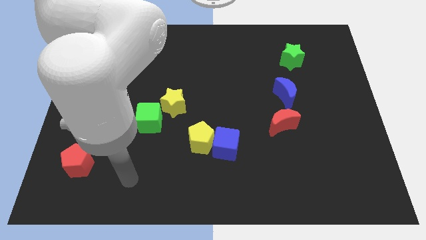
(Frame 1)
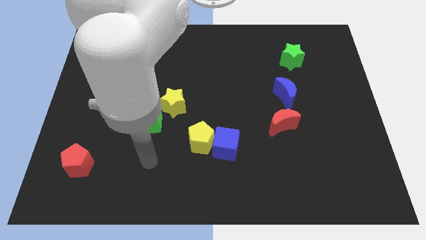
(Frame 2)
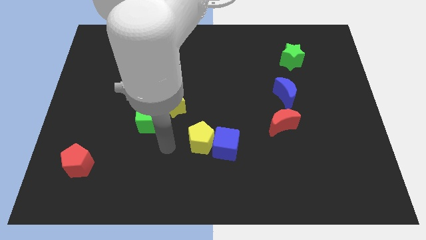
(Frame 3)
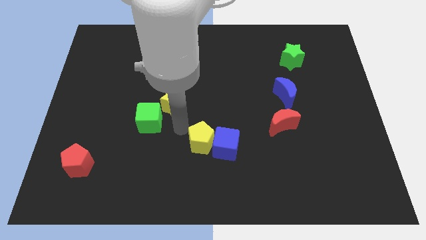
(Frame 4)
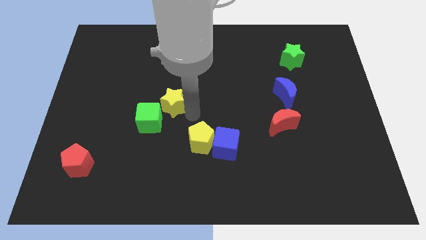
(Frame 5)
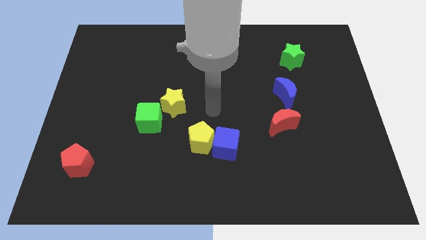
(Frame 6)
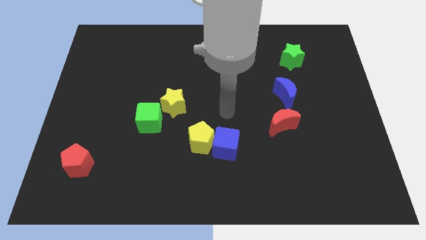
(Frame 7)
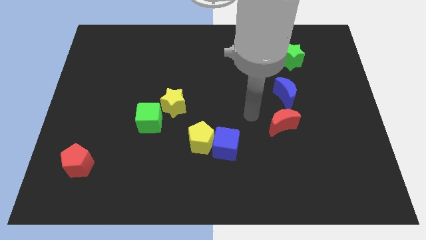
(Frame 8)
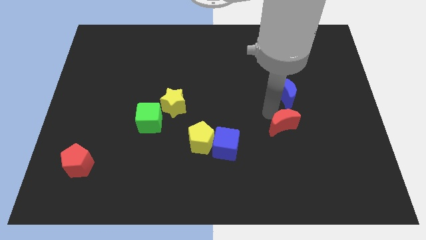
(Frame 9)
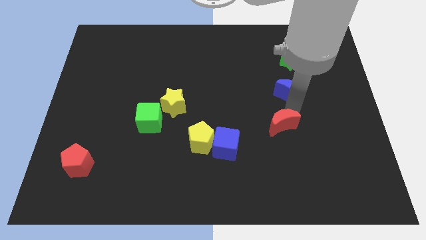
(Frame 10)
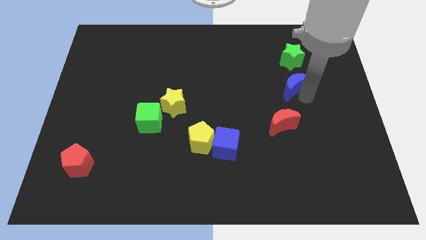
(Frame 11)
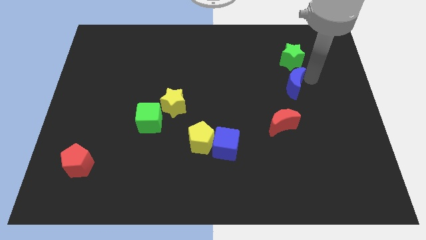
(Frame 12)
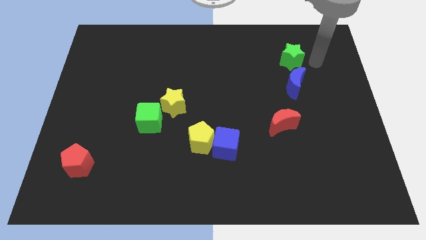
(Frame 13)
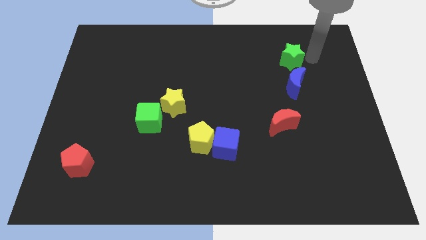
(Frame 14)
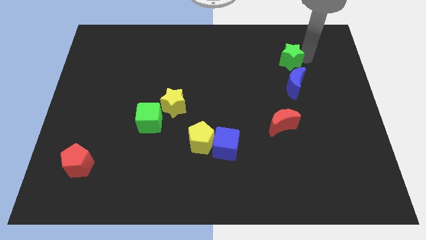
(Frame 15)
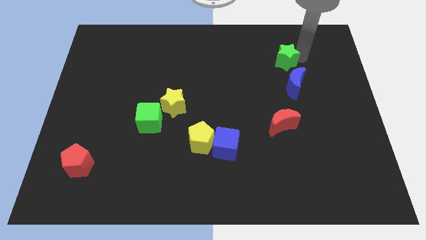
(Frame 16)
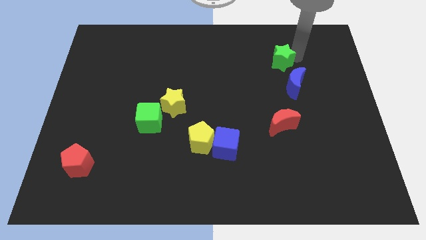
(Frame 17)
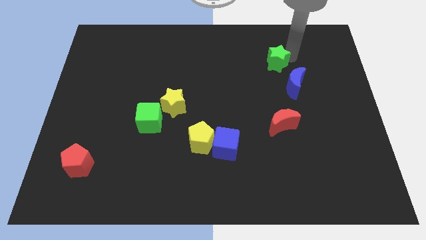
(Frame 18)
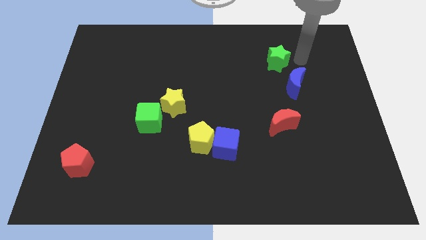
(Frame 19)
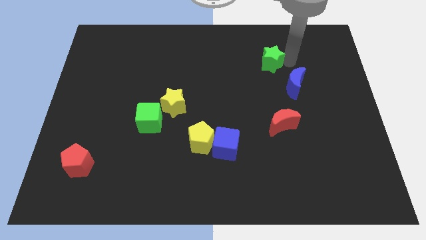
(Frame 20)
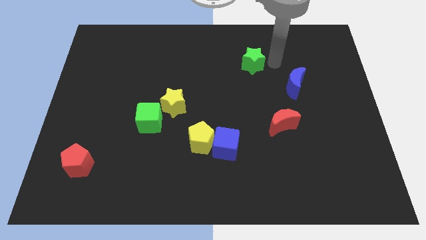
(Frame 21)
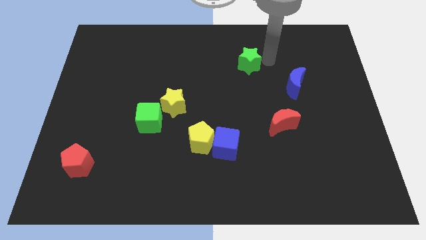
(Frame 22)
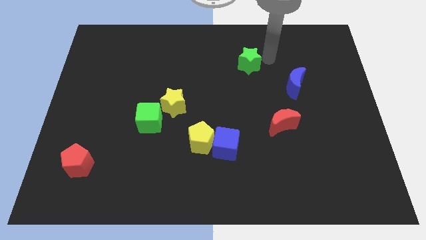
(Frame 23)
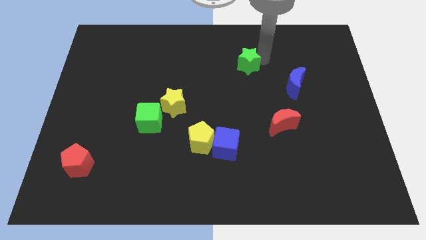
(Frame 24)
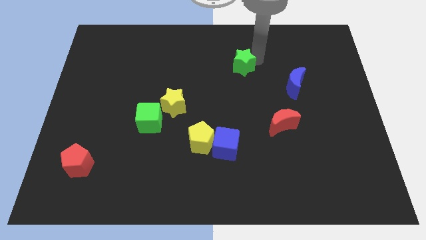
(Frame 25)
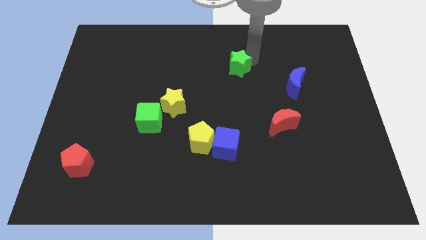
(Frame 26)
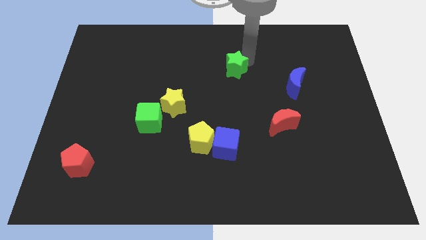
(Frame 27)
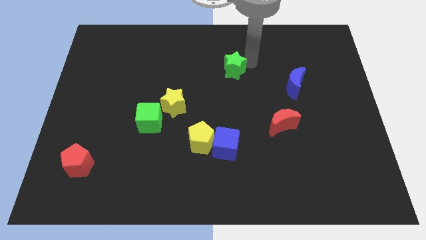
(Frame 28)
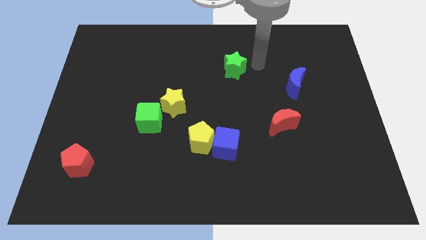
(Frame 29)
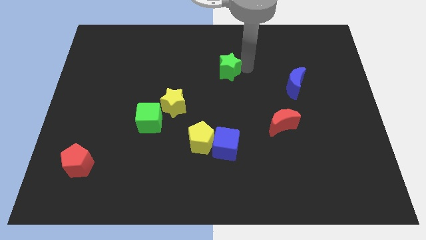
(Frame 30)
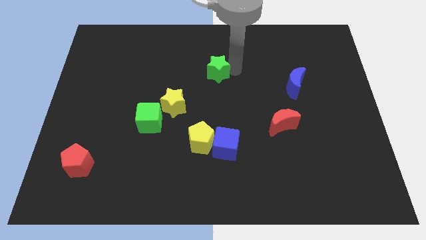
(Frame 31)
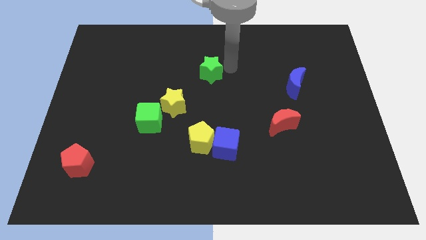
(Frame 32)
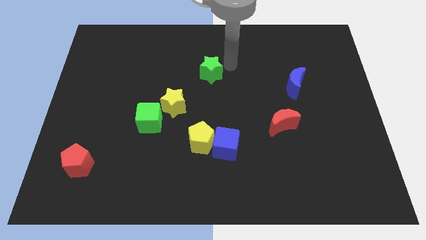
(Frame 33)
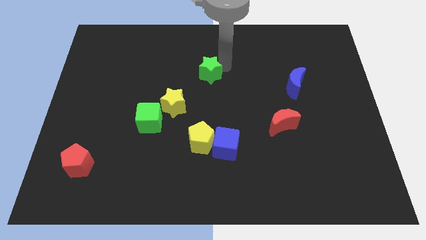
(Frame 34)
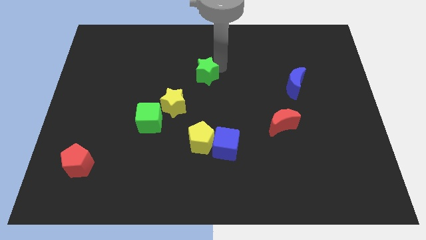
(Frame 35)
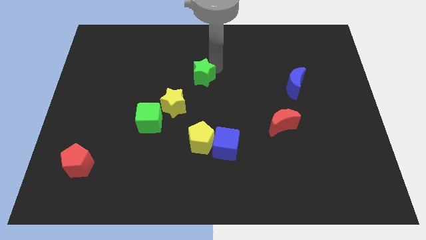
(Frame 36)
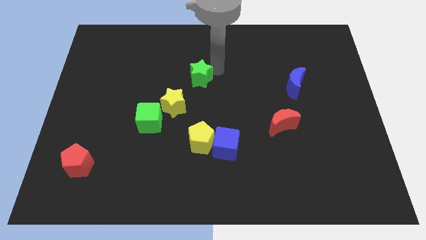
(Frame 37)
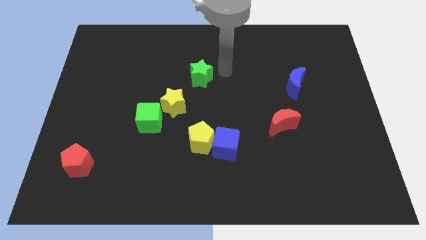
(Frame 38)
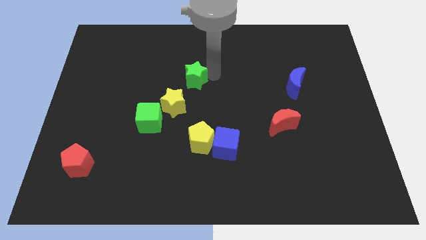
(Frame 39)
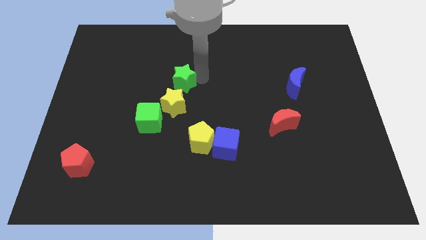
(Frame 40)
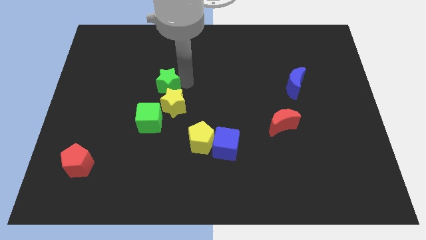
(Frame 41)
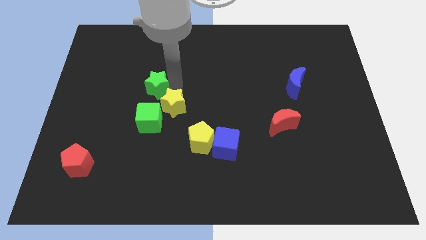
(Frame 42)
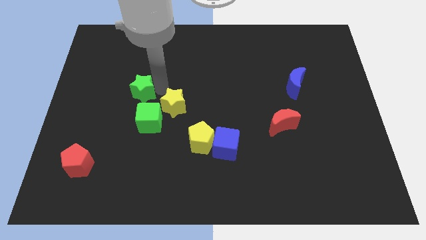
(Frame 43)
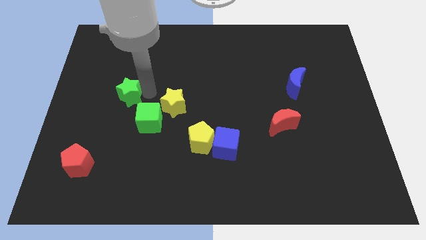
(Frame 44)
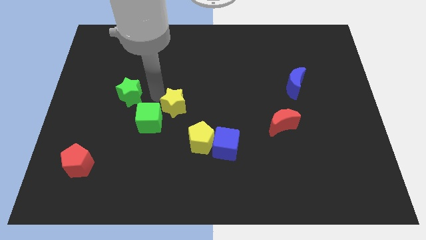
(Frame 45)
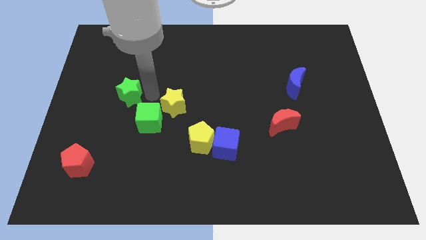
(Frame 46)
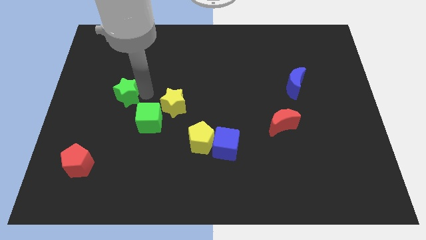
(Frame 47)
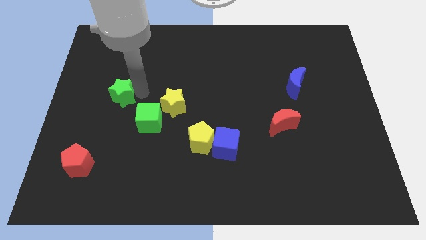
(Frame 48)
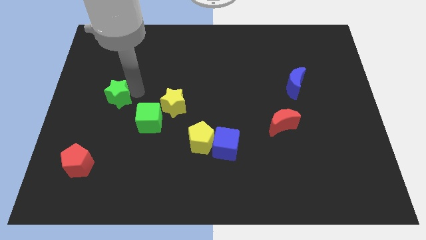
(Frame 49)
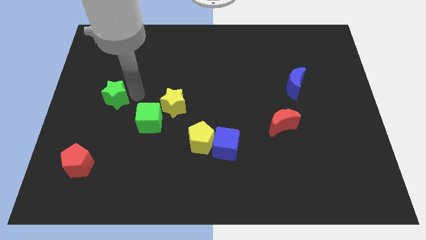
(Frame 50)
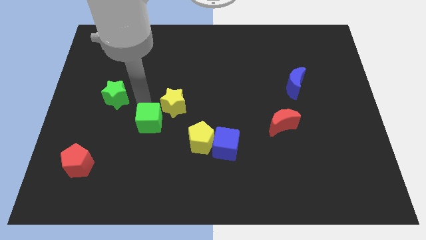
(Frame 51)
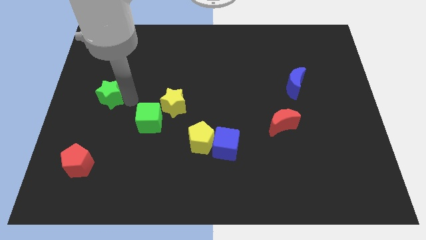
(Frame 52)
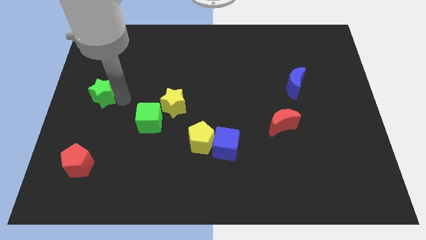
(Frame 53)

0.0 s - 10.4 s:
push the green star to the left side of the board
